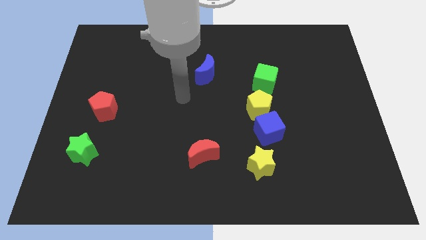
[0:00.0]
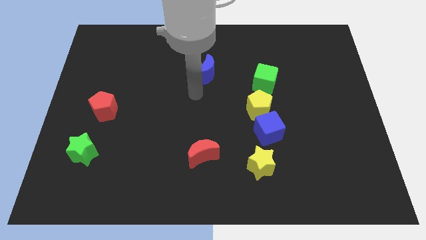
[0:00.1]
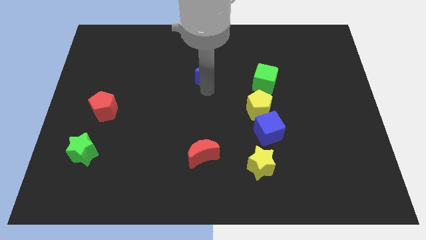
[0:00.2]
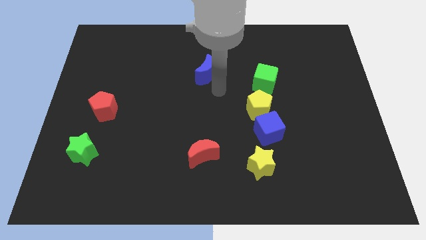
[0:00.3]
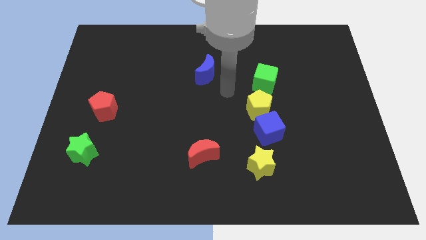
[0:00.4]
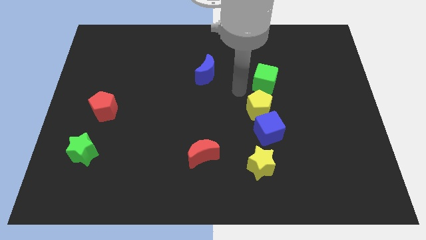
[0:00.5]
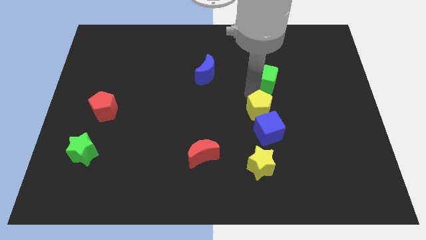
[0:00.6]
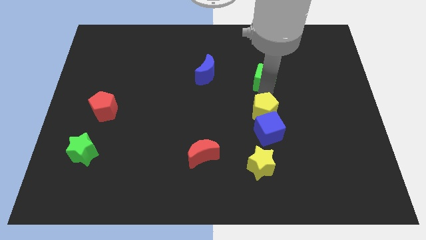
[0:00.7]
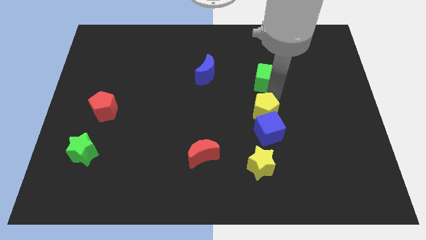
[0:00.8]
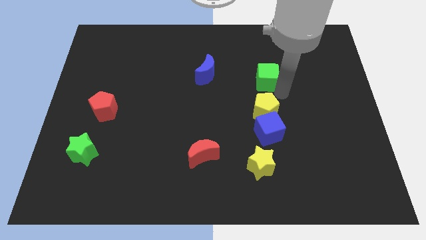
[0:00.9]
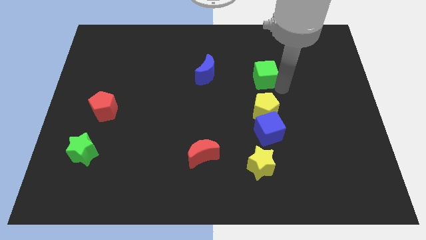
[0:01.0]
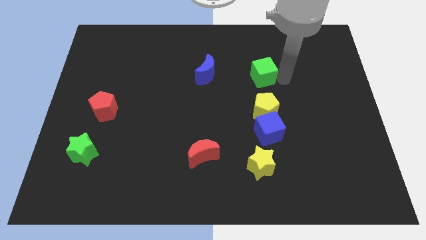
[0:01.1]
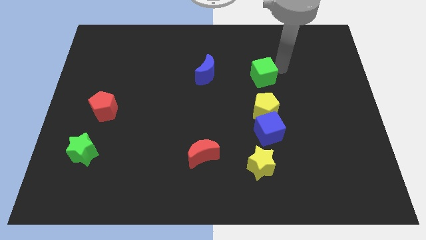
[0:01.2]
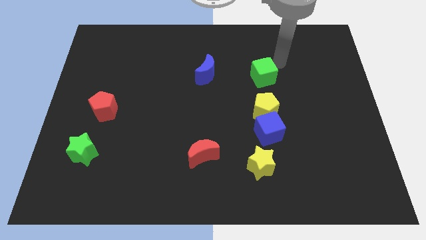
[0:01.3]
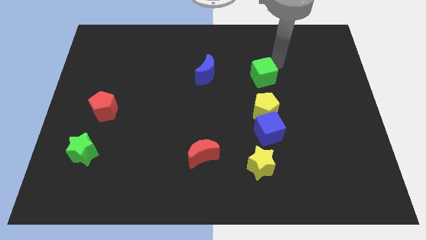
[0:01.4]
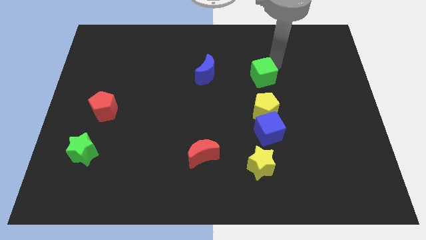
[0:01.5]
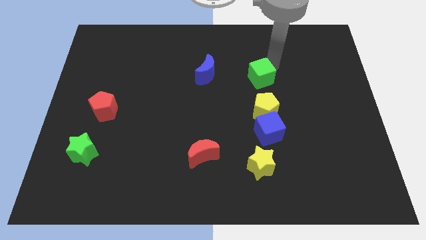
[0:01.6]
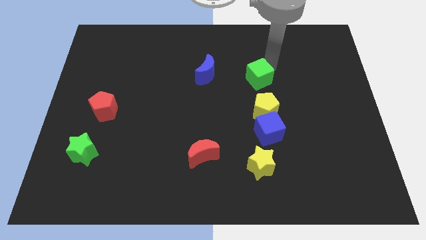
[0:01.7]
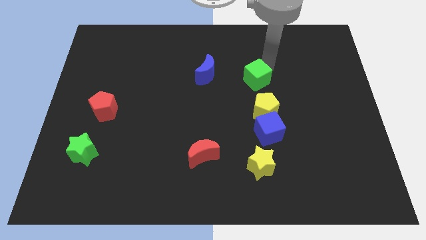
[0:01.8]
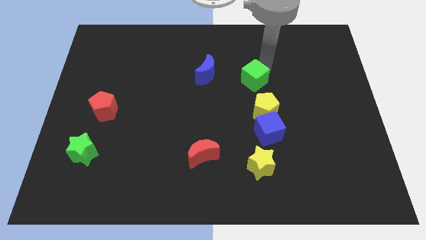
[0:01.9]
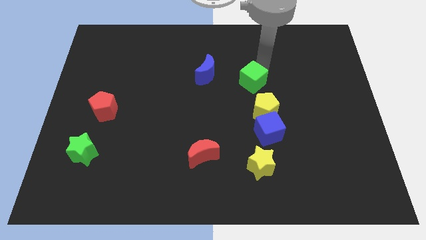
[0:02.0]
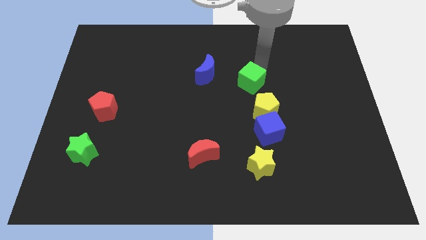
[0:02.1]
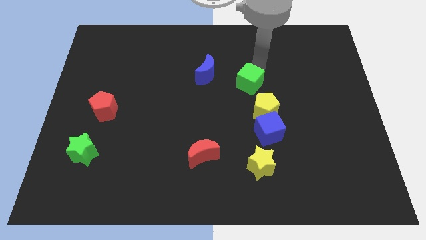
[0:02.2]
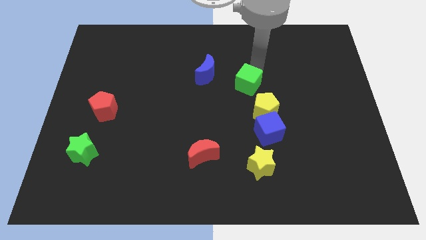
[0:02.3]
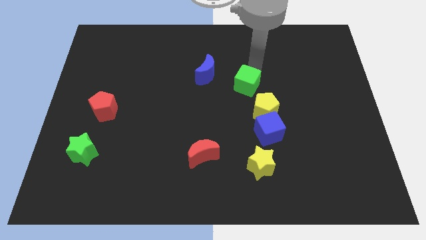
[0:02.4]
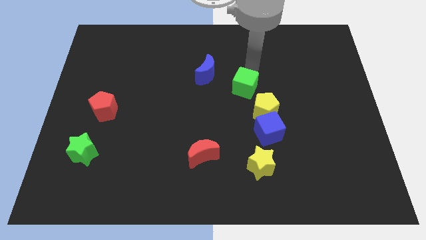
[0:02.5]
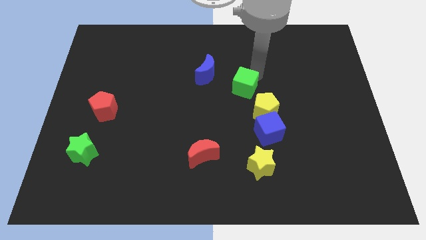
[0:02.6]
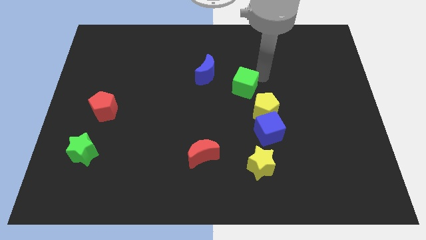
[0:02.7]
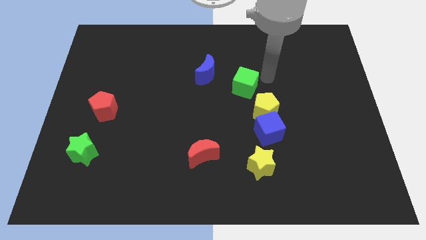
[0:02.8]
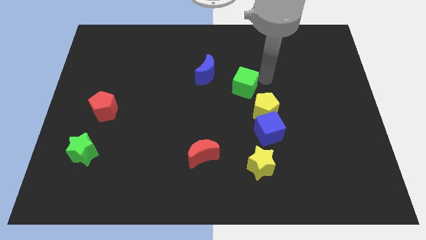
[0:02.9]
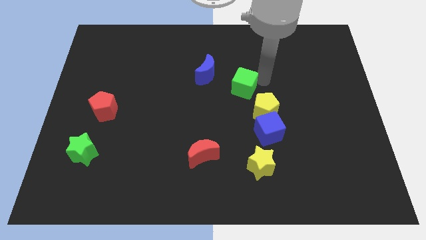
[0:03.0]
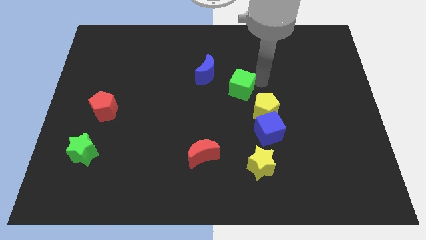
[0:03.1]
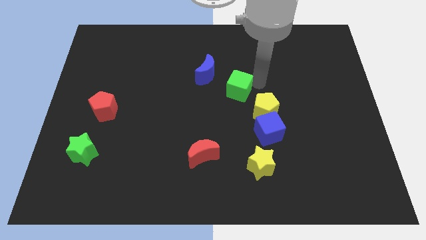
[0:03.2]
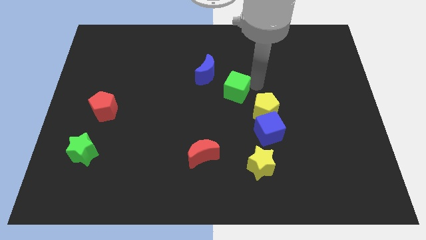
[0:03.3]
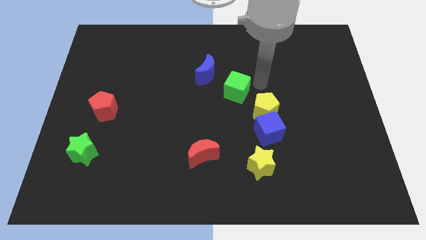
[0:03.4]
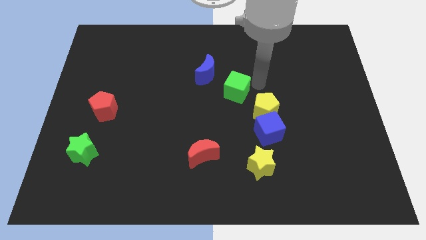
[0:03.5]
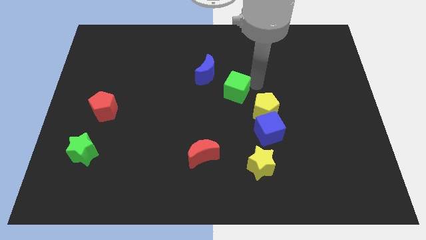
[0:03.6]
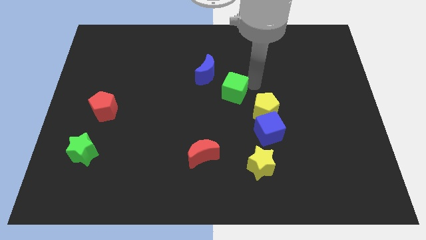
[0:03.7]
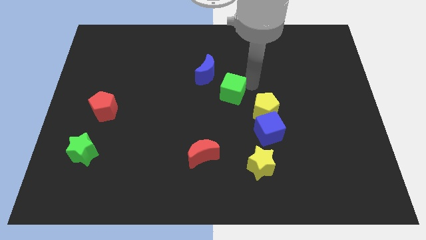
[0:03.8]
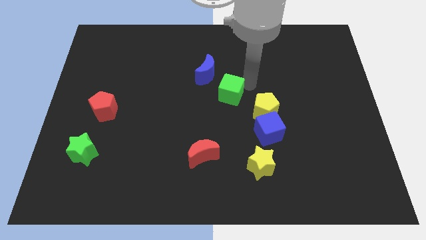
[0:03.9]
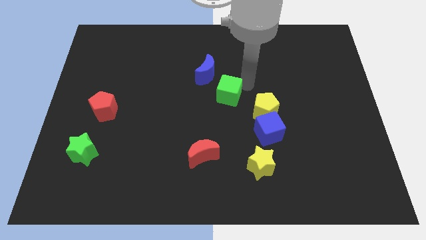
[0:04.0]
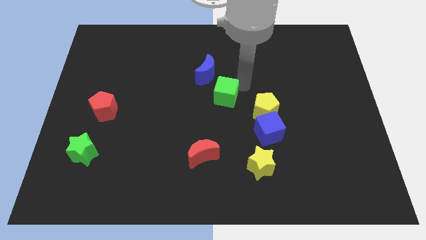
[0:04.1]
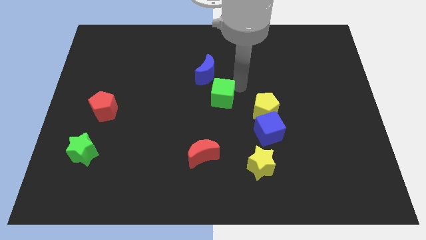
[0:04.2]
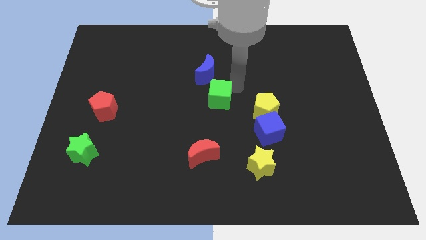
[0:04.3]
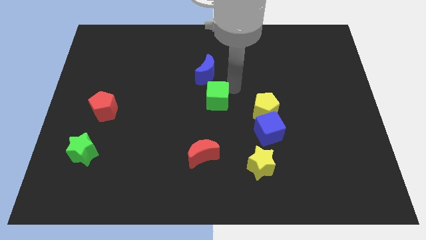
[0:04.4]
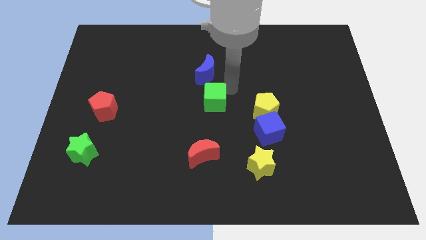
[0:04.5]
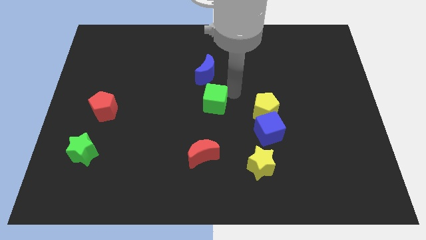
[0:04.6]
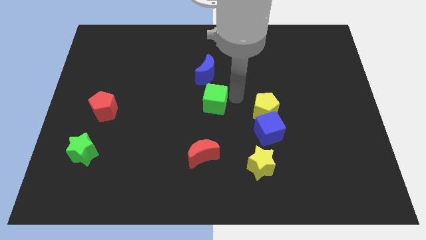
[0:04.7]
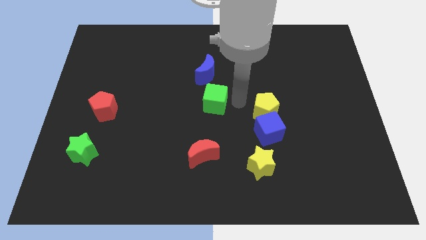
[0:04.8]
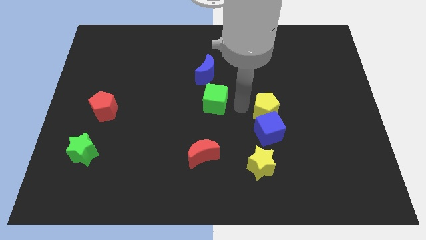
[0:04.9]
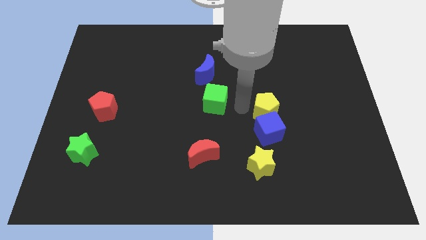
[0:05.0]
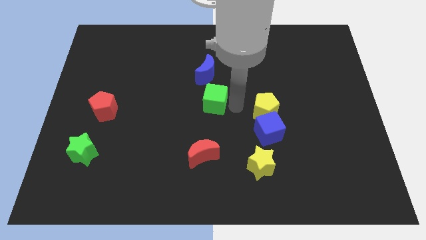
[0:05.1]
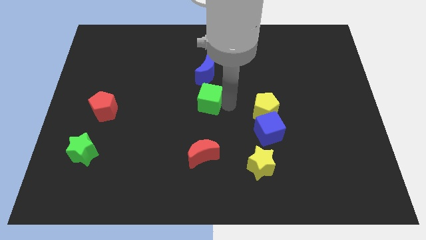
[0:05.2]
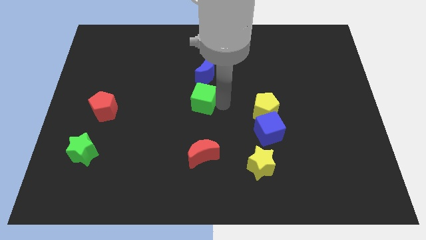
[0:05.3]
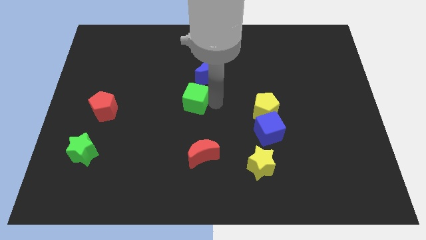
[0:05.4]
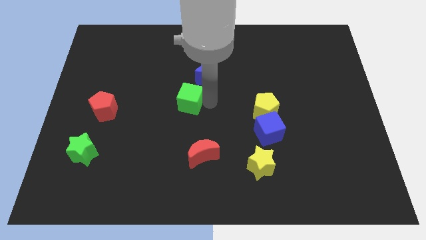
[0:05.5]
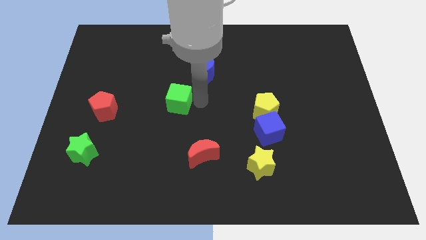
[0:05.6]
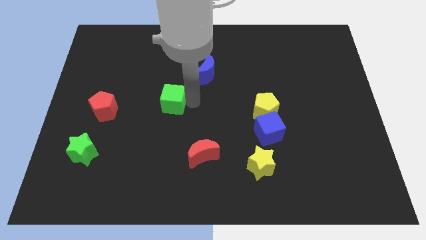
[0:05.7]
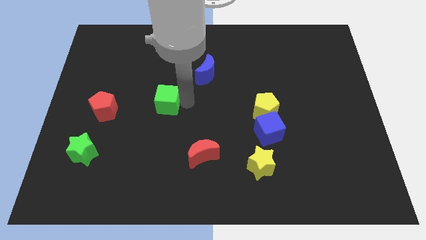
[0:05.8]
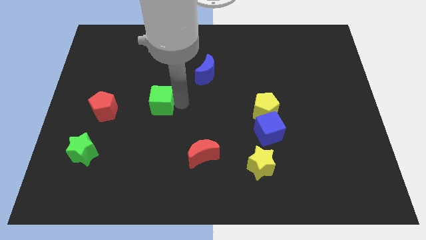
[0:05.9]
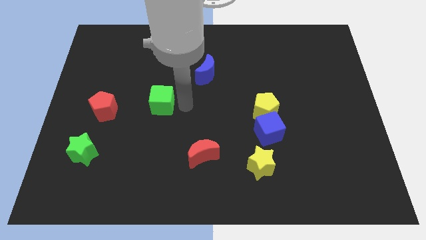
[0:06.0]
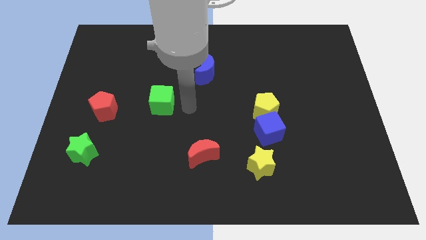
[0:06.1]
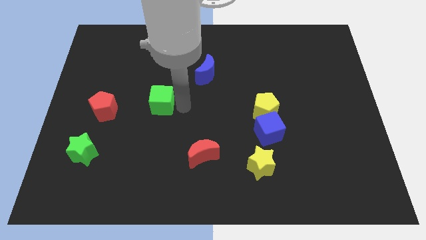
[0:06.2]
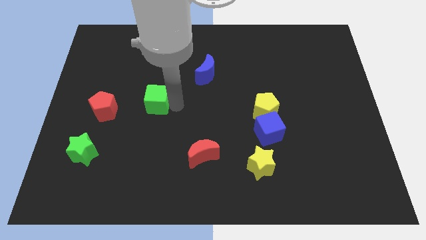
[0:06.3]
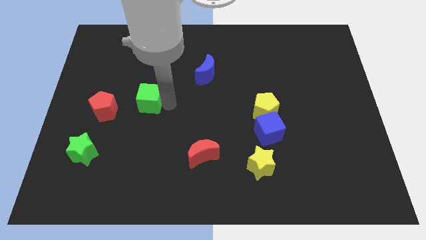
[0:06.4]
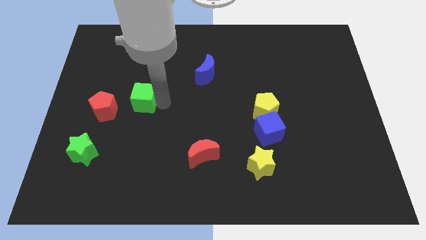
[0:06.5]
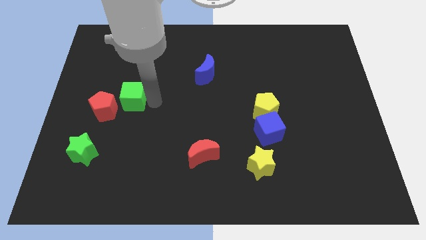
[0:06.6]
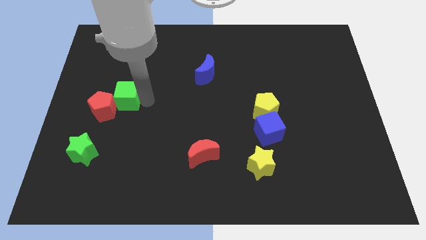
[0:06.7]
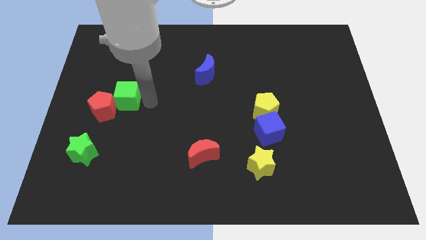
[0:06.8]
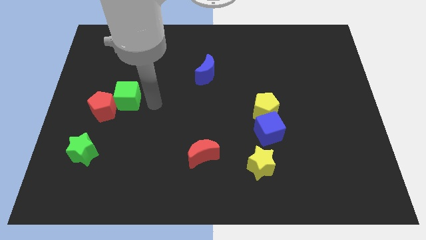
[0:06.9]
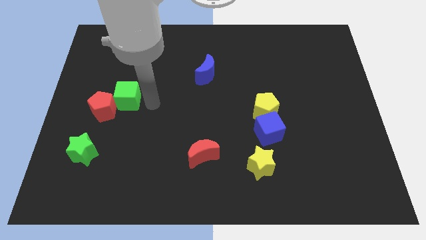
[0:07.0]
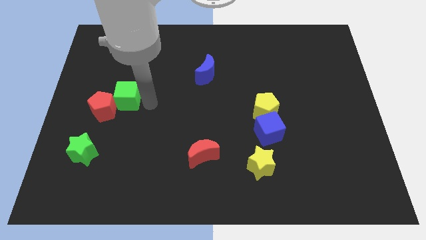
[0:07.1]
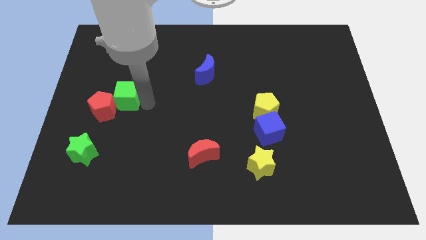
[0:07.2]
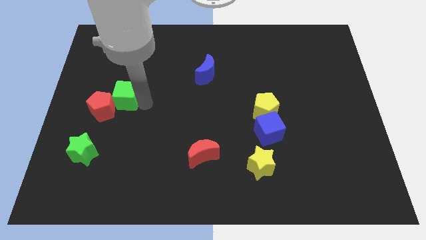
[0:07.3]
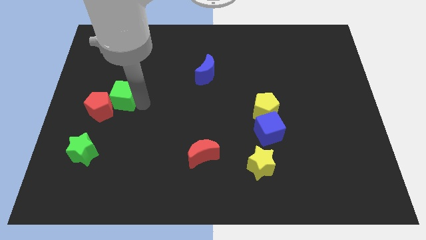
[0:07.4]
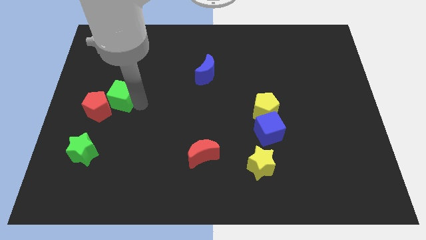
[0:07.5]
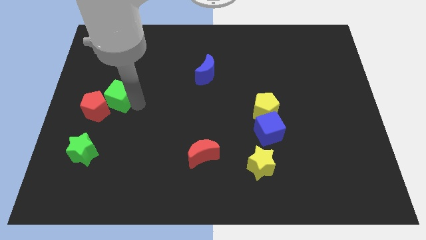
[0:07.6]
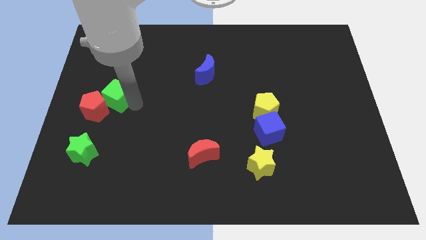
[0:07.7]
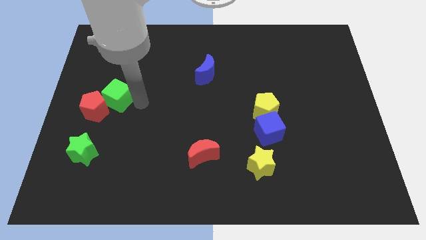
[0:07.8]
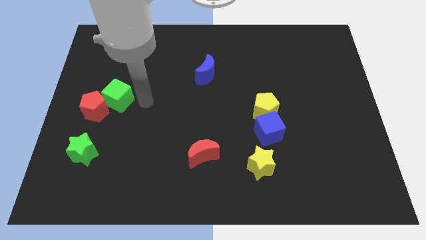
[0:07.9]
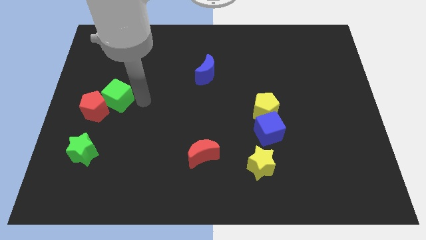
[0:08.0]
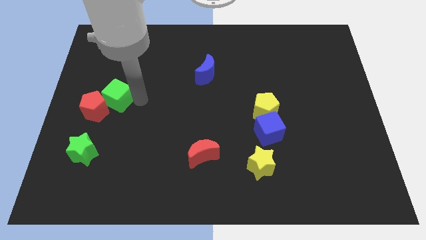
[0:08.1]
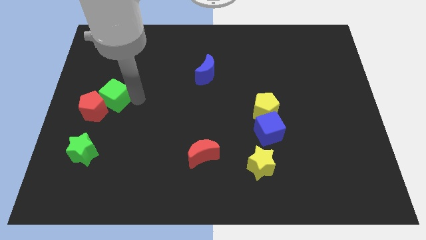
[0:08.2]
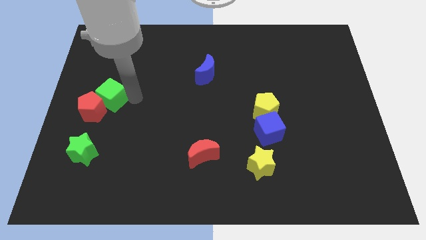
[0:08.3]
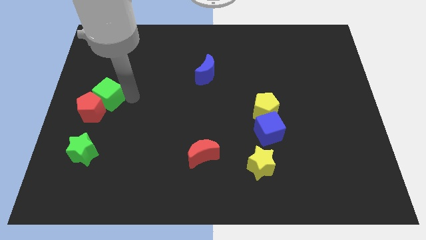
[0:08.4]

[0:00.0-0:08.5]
slide the green cube to the left side of the board

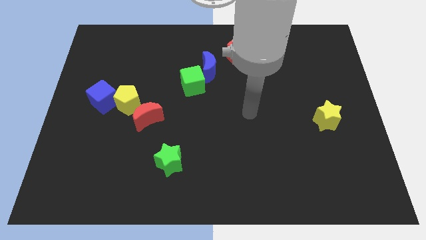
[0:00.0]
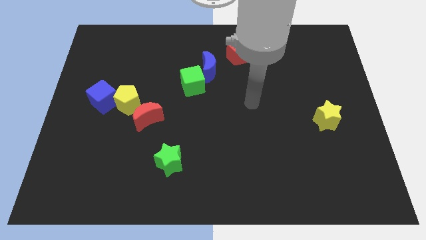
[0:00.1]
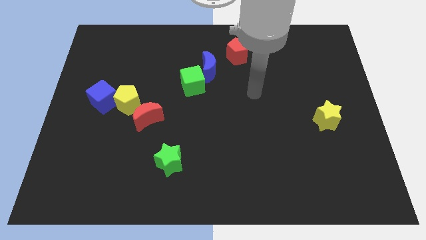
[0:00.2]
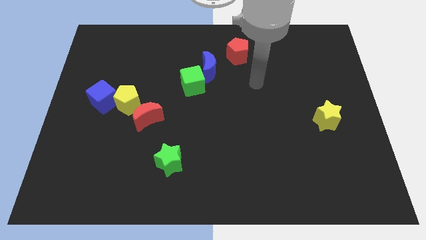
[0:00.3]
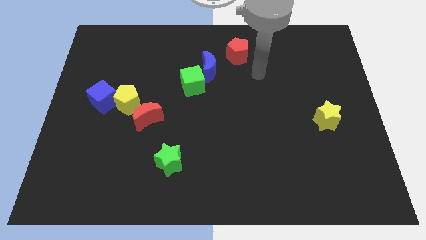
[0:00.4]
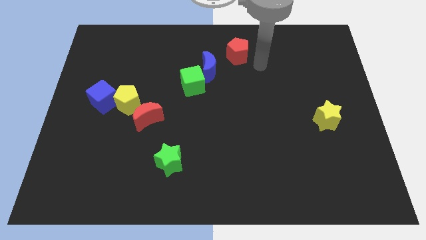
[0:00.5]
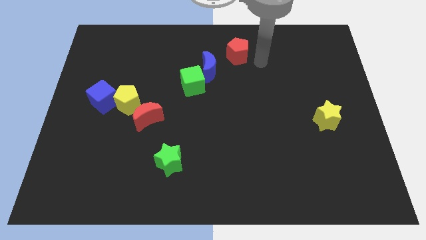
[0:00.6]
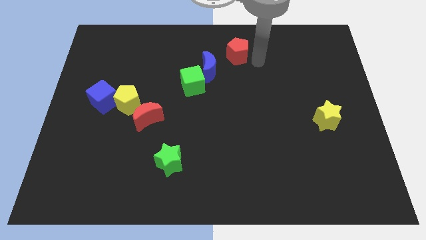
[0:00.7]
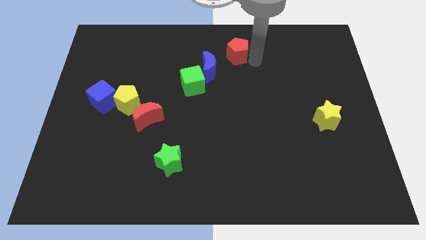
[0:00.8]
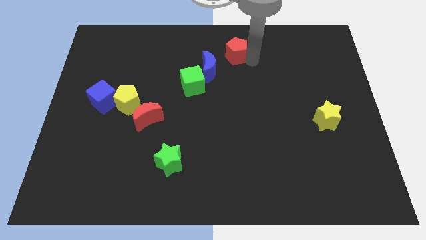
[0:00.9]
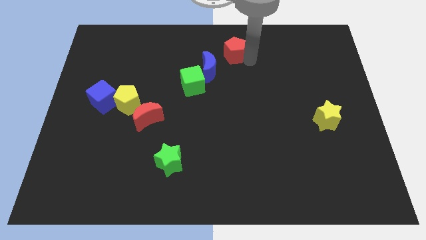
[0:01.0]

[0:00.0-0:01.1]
move the red pentagon to the top side
